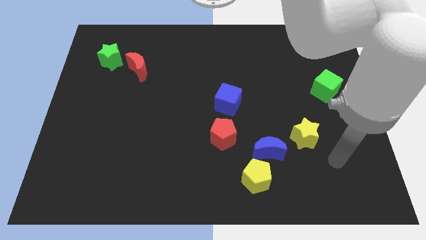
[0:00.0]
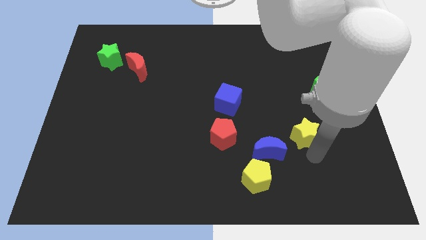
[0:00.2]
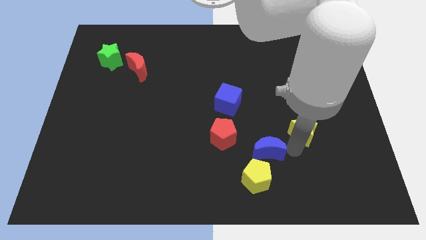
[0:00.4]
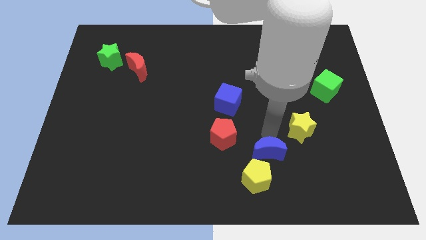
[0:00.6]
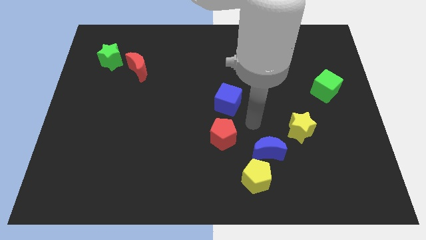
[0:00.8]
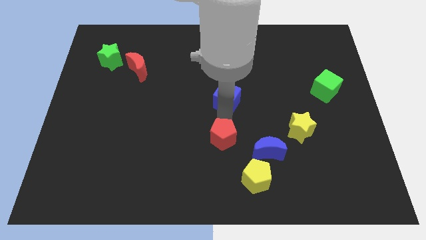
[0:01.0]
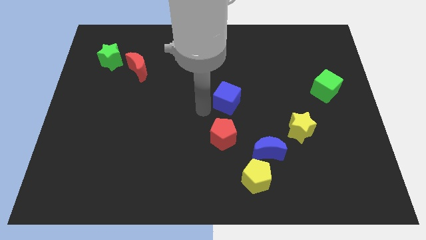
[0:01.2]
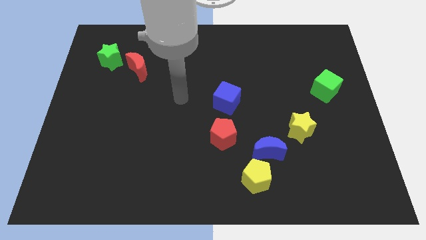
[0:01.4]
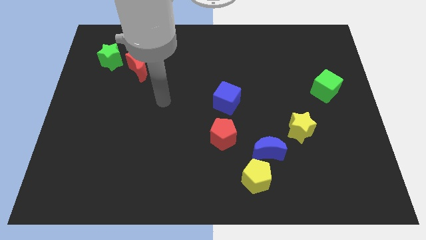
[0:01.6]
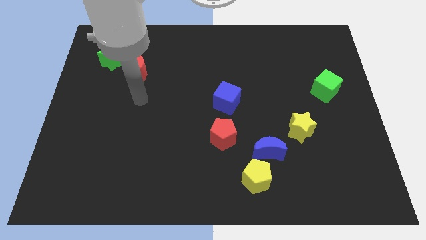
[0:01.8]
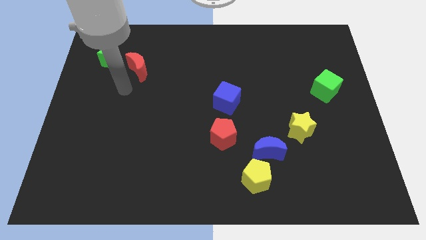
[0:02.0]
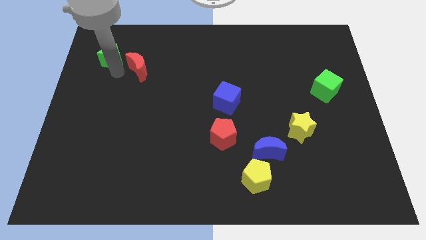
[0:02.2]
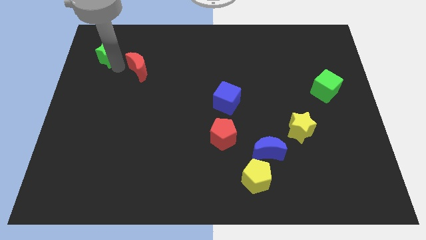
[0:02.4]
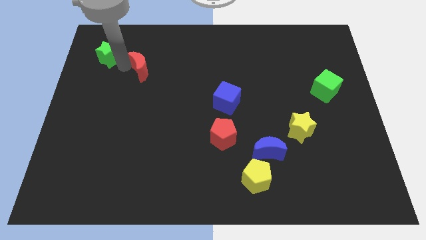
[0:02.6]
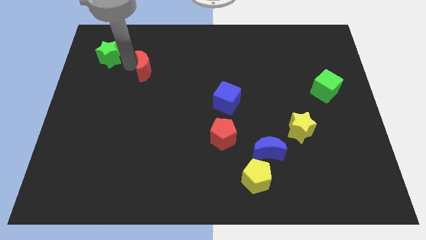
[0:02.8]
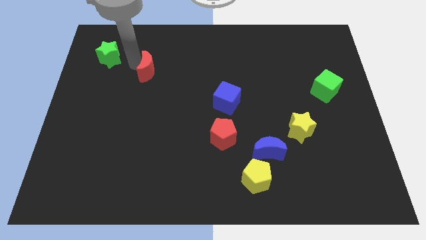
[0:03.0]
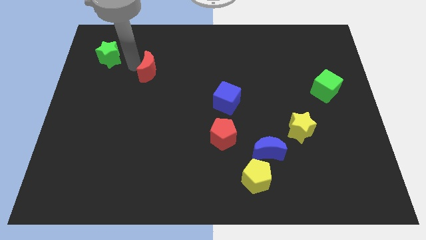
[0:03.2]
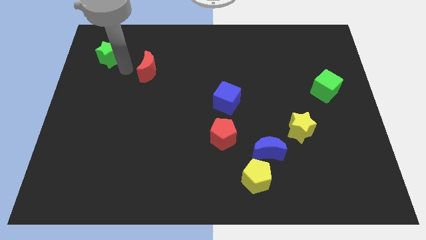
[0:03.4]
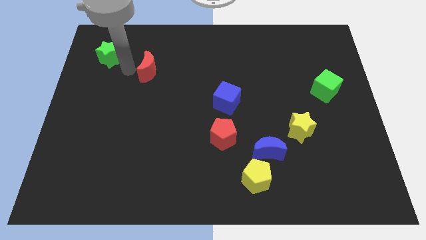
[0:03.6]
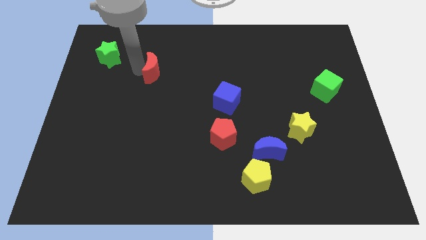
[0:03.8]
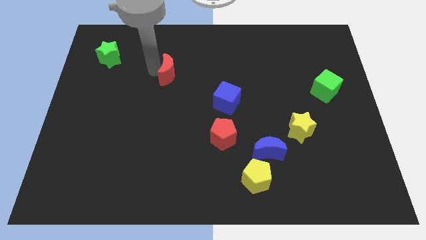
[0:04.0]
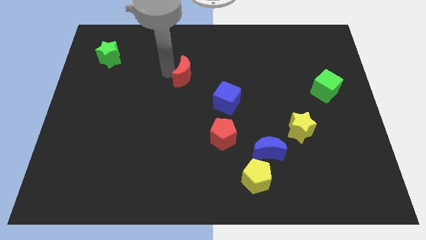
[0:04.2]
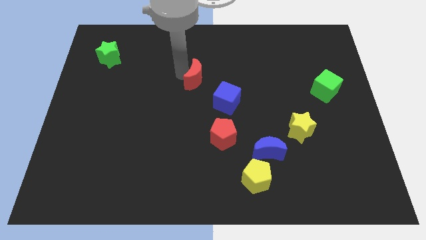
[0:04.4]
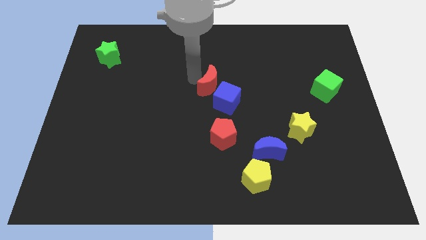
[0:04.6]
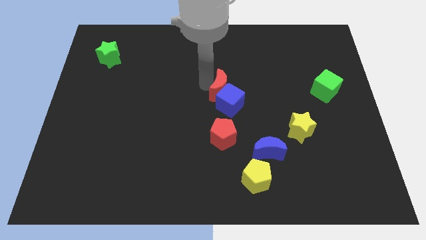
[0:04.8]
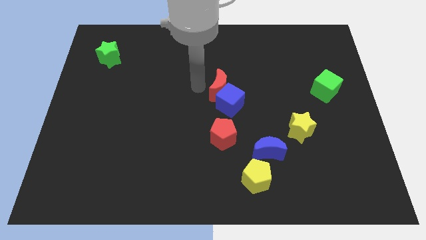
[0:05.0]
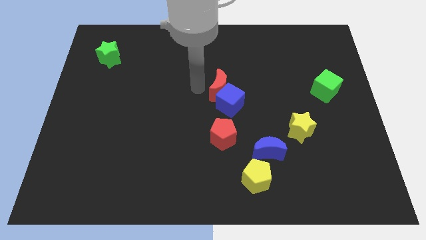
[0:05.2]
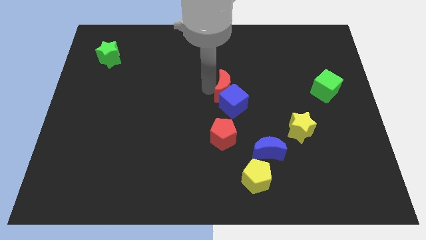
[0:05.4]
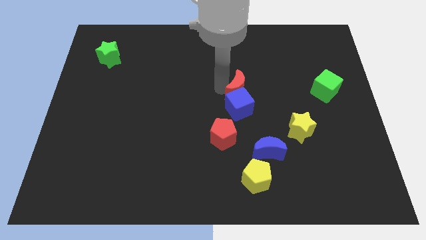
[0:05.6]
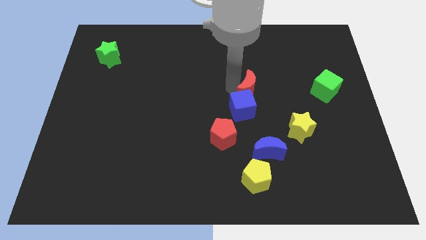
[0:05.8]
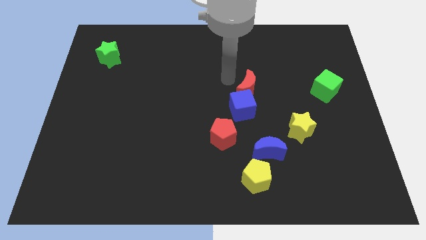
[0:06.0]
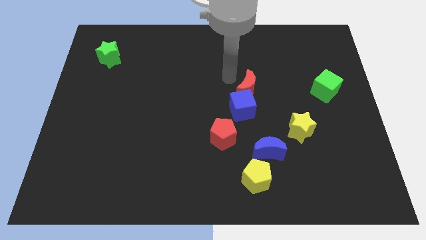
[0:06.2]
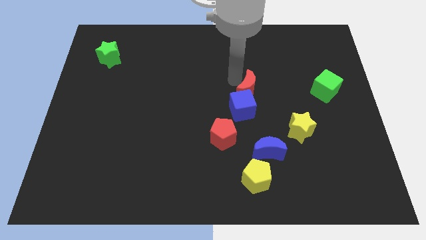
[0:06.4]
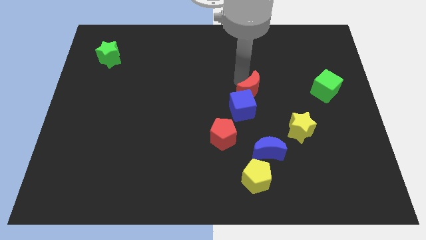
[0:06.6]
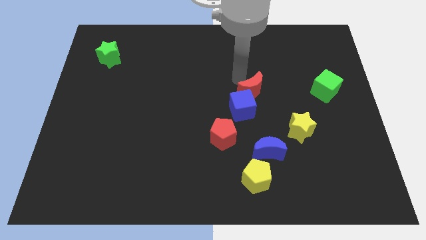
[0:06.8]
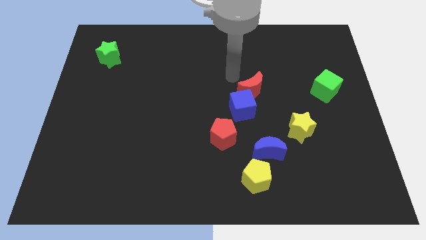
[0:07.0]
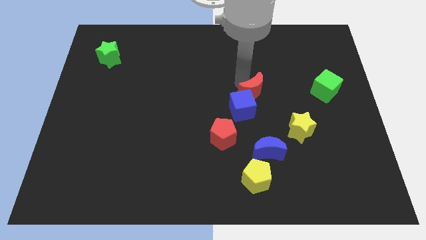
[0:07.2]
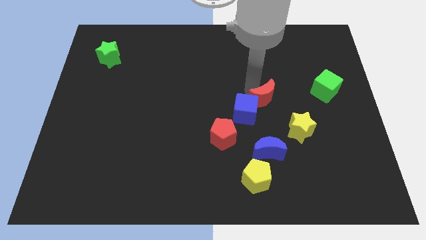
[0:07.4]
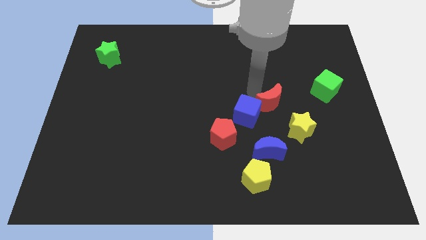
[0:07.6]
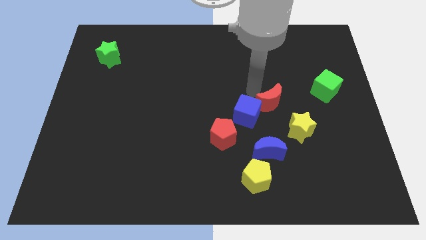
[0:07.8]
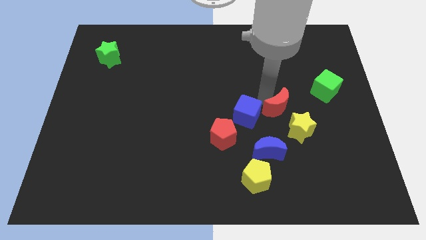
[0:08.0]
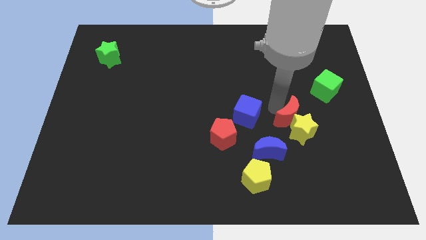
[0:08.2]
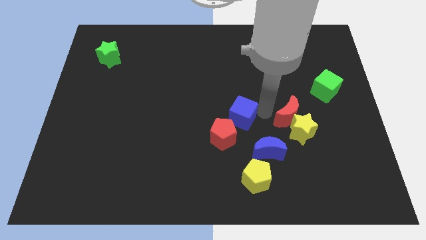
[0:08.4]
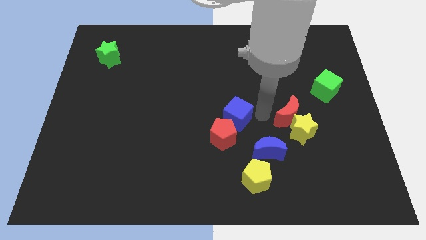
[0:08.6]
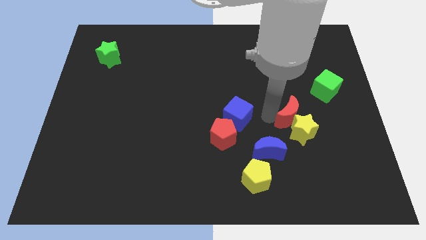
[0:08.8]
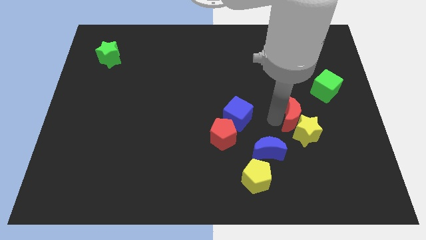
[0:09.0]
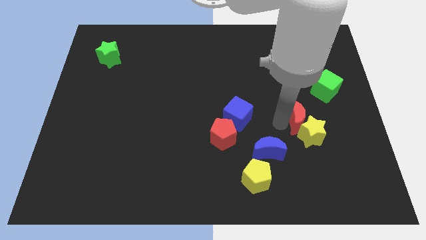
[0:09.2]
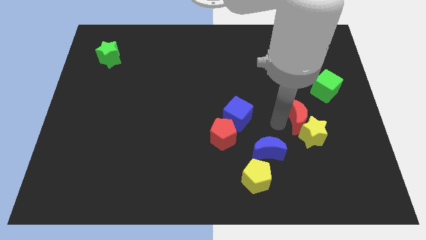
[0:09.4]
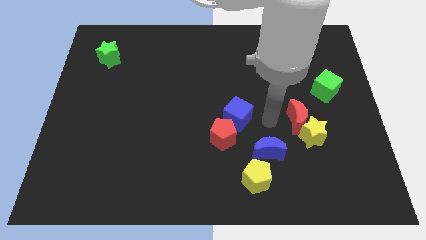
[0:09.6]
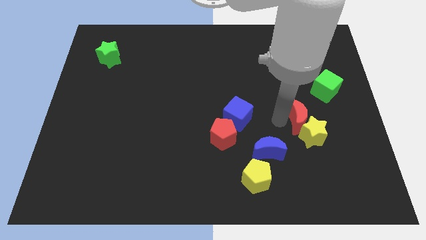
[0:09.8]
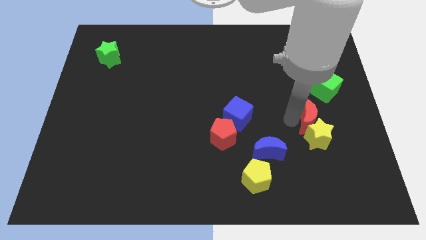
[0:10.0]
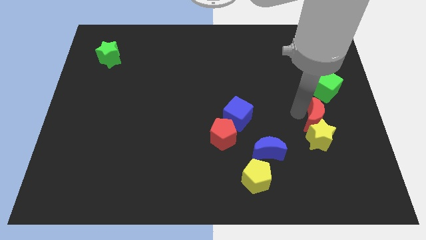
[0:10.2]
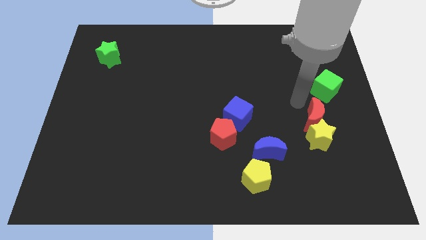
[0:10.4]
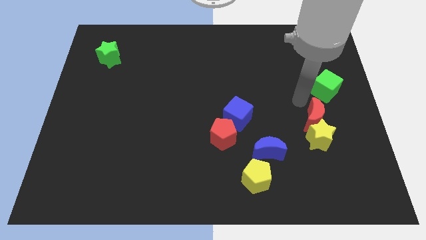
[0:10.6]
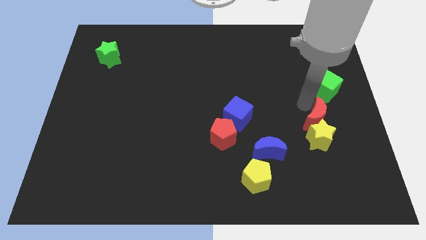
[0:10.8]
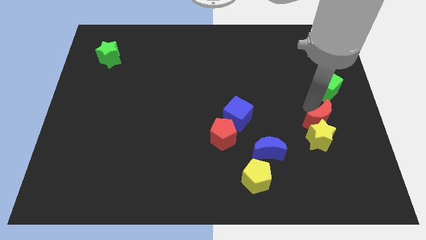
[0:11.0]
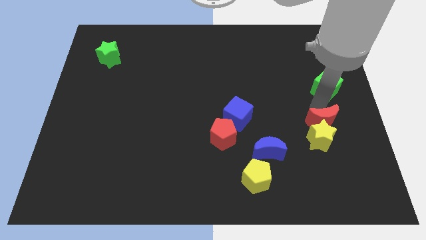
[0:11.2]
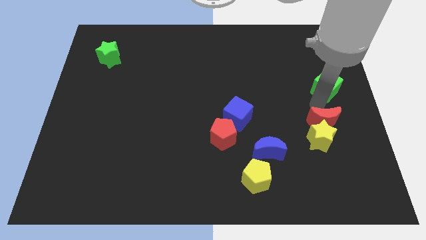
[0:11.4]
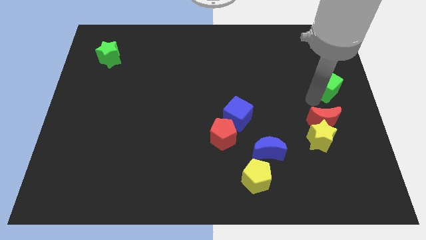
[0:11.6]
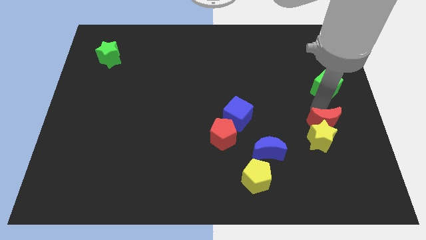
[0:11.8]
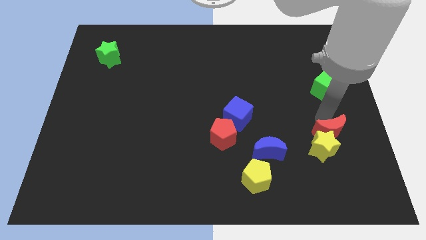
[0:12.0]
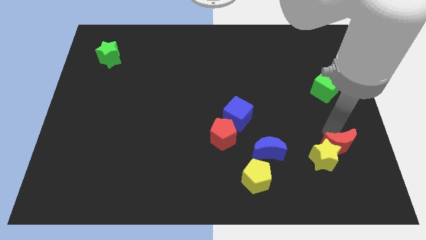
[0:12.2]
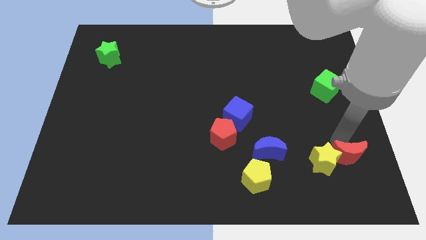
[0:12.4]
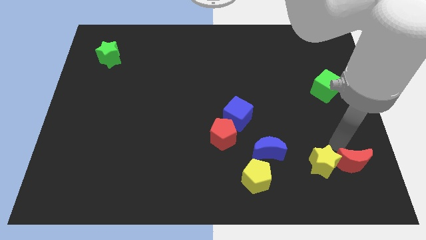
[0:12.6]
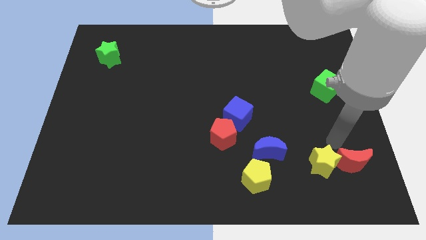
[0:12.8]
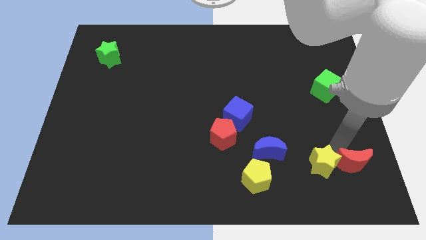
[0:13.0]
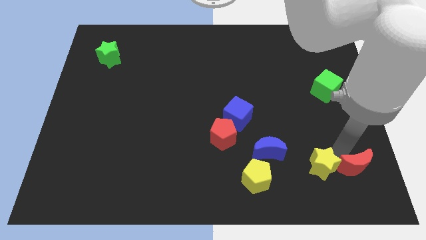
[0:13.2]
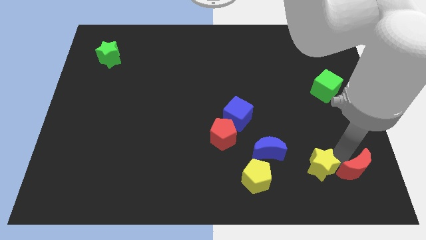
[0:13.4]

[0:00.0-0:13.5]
push the red moon to the bottom right

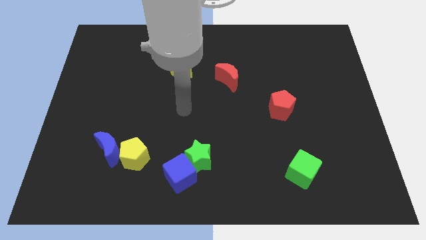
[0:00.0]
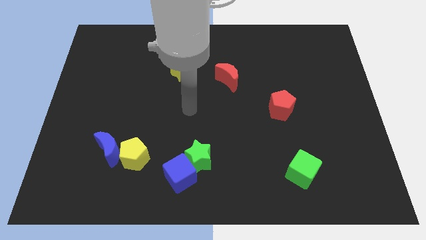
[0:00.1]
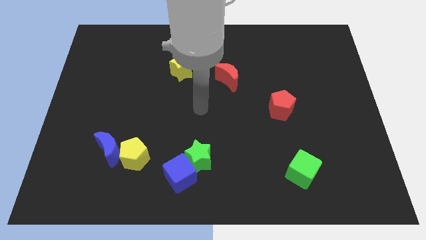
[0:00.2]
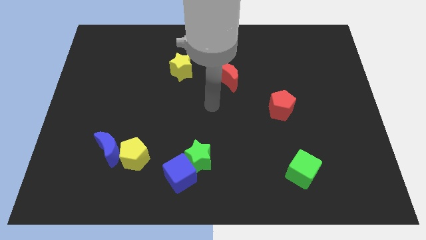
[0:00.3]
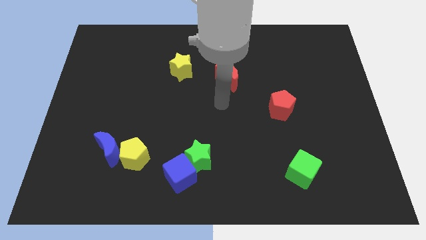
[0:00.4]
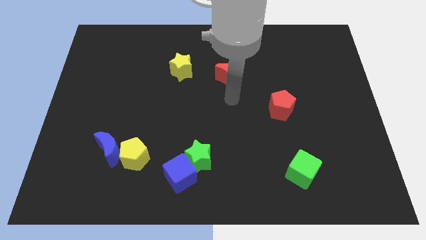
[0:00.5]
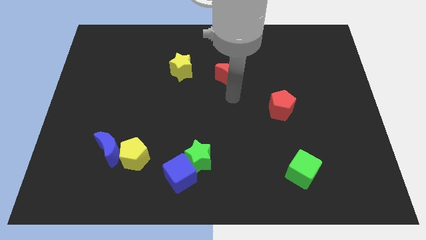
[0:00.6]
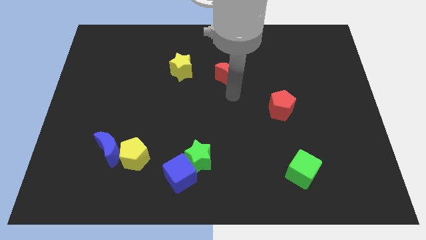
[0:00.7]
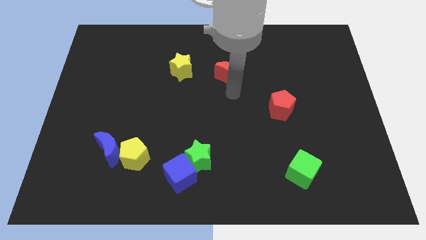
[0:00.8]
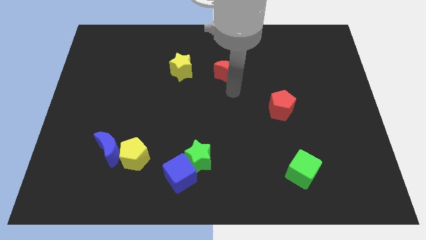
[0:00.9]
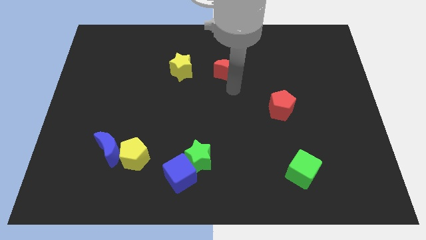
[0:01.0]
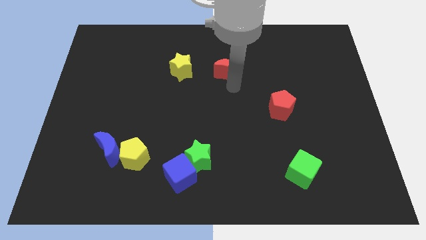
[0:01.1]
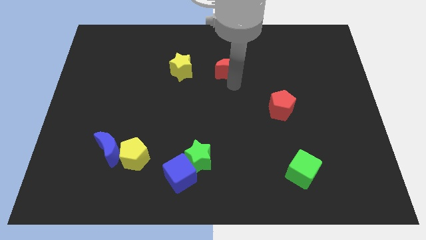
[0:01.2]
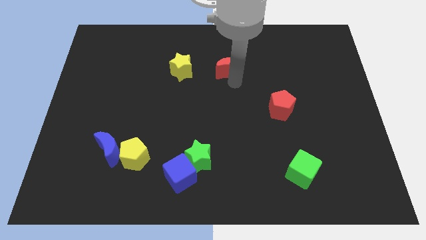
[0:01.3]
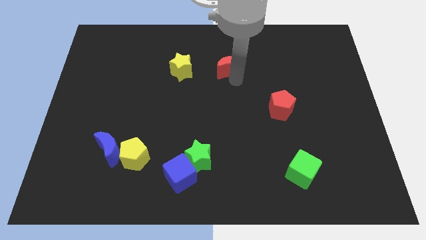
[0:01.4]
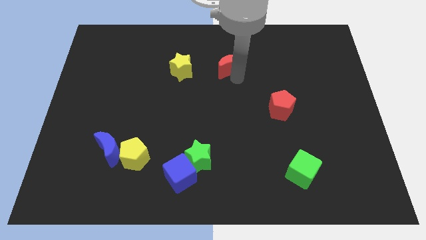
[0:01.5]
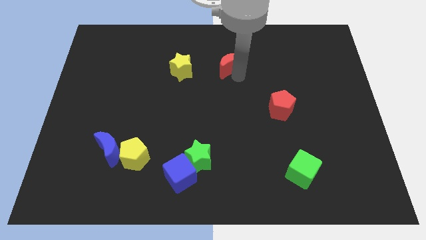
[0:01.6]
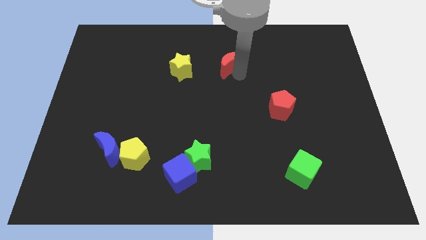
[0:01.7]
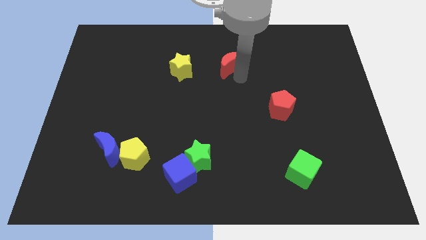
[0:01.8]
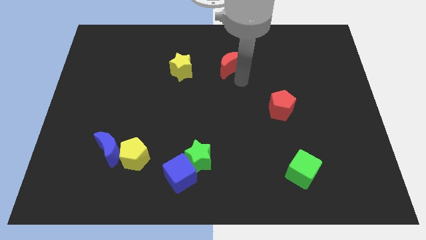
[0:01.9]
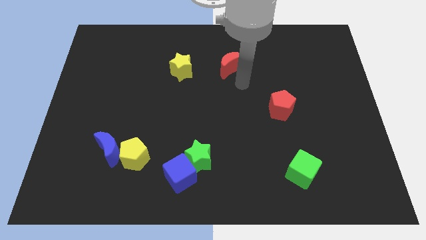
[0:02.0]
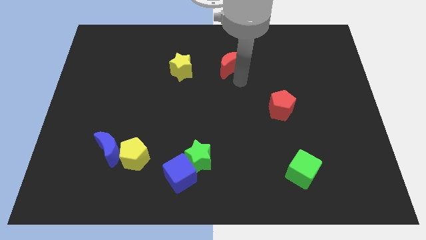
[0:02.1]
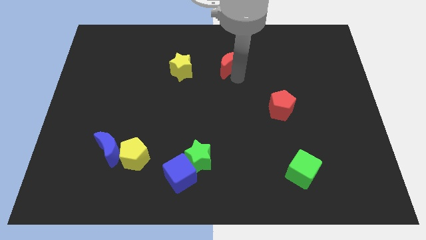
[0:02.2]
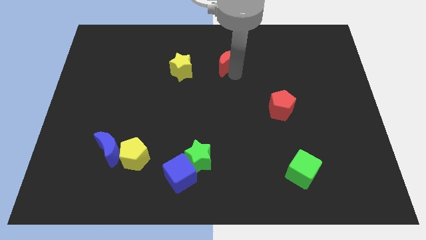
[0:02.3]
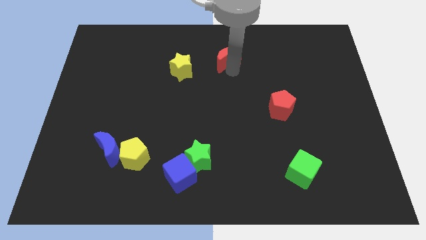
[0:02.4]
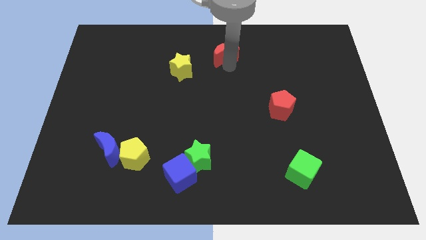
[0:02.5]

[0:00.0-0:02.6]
push the red moon to the top side
